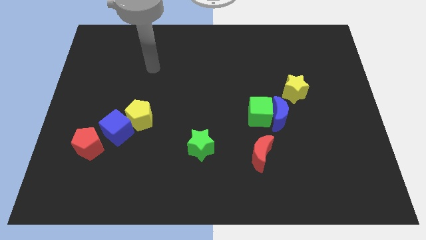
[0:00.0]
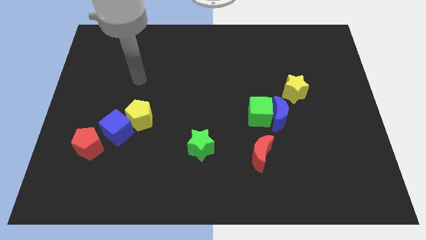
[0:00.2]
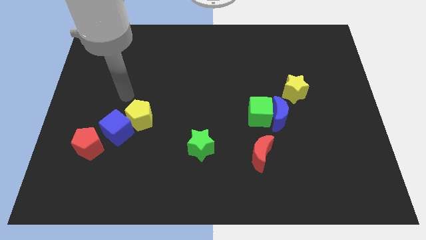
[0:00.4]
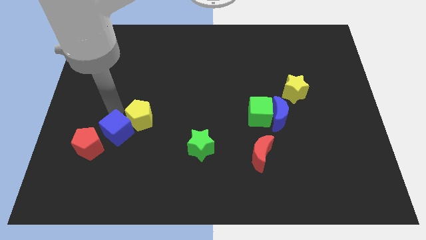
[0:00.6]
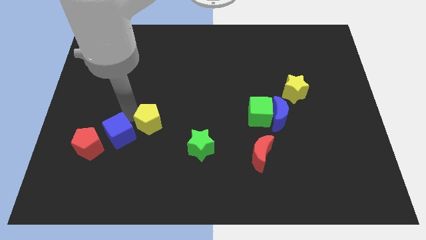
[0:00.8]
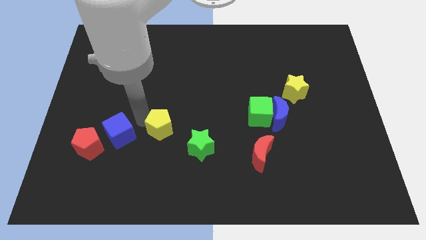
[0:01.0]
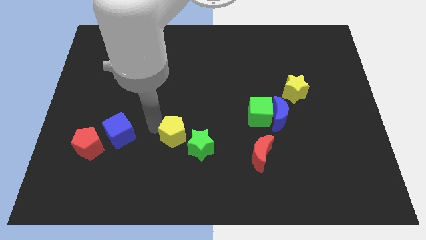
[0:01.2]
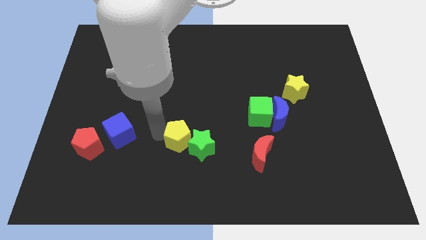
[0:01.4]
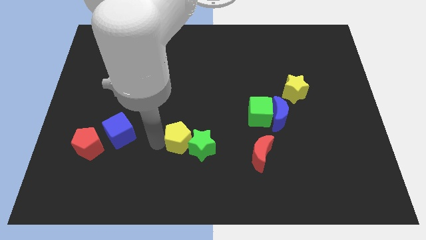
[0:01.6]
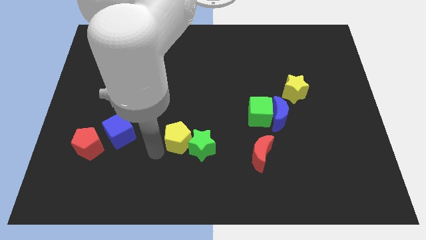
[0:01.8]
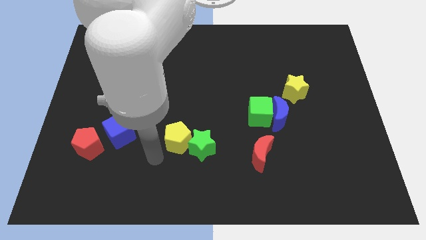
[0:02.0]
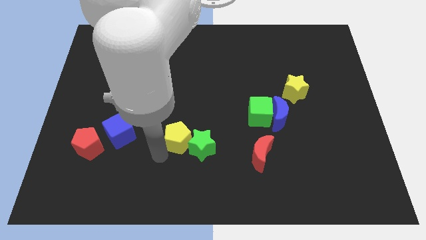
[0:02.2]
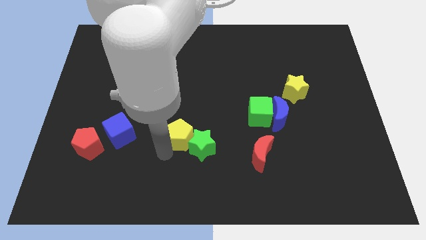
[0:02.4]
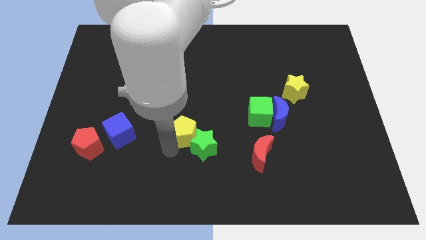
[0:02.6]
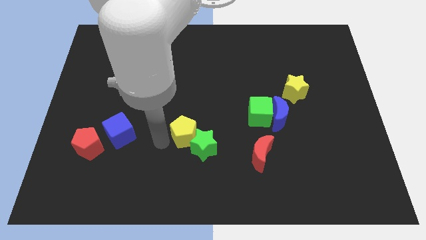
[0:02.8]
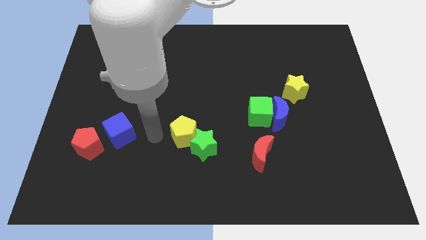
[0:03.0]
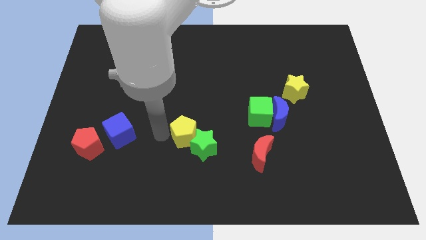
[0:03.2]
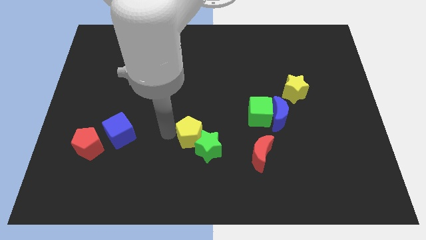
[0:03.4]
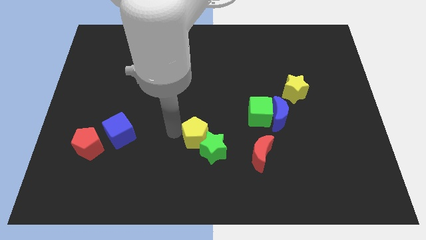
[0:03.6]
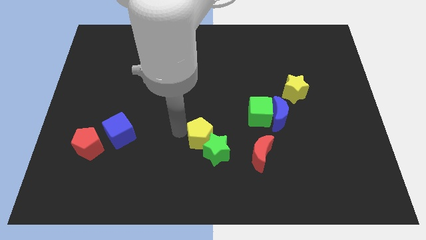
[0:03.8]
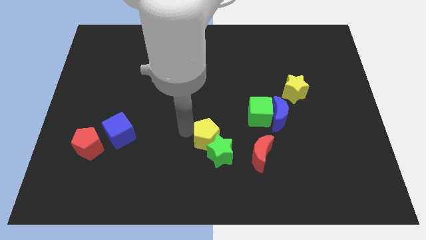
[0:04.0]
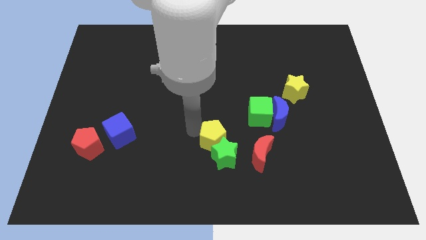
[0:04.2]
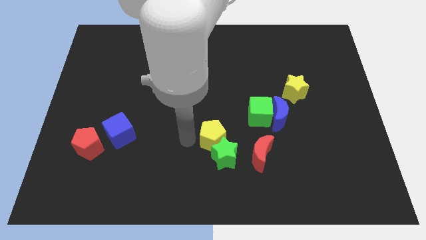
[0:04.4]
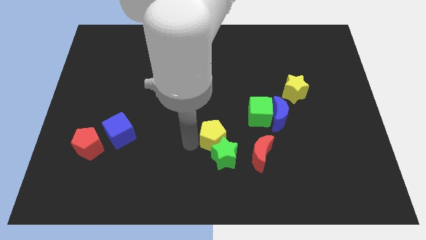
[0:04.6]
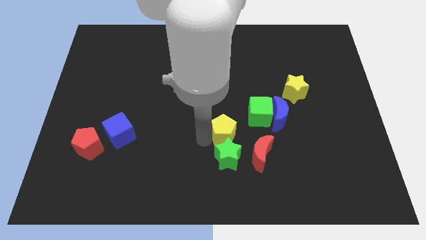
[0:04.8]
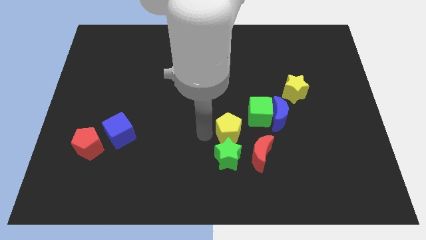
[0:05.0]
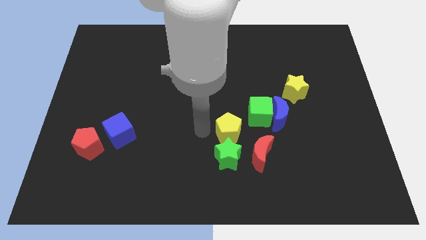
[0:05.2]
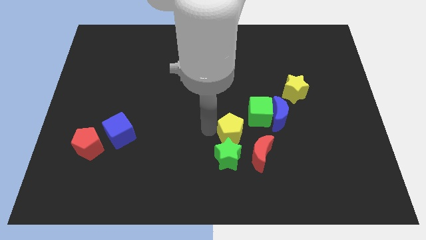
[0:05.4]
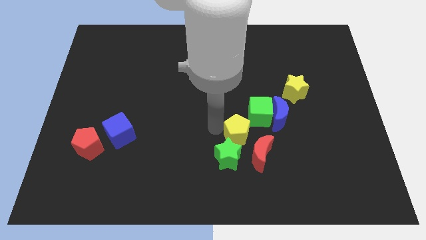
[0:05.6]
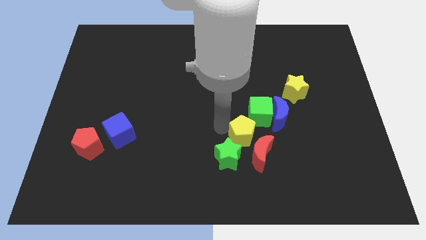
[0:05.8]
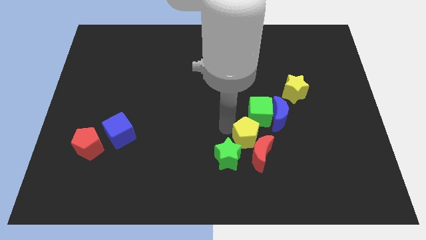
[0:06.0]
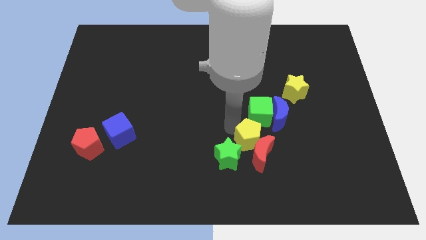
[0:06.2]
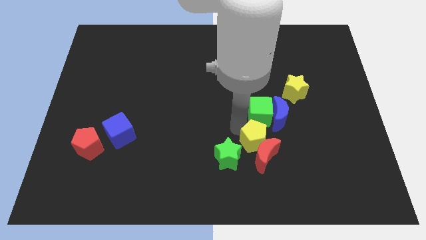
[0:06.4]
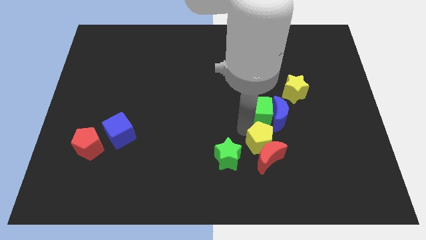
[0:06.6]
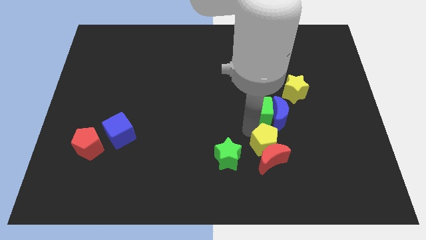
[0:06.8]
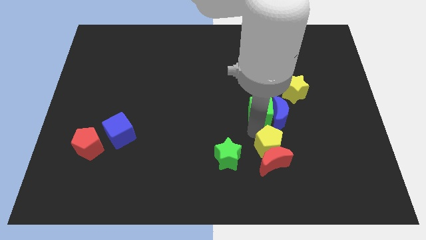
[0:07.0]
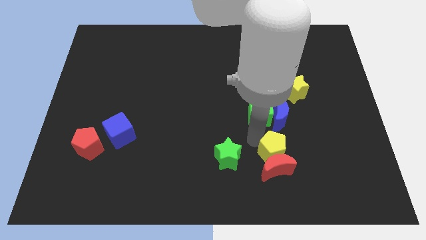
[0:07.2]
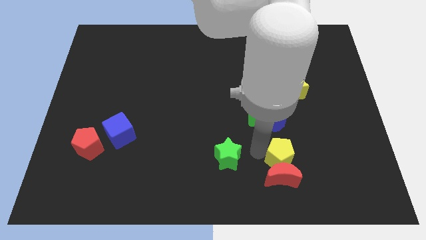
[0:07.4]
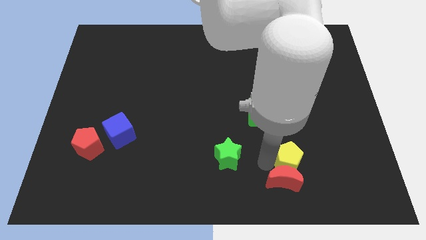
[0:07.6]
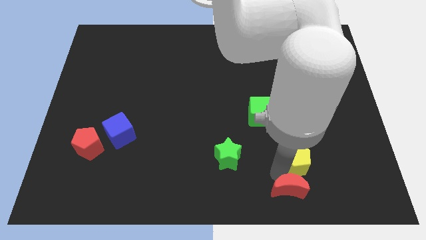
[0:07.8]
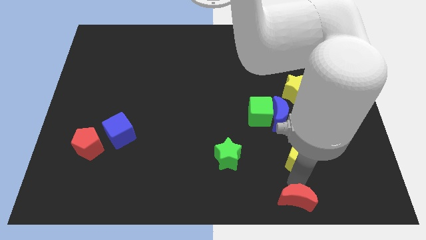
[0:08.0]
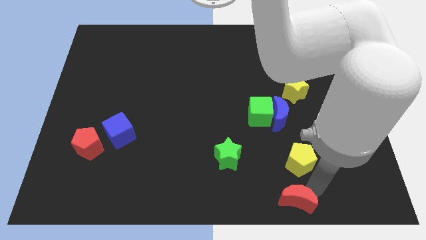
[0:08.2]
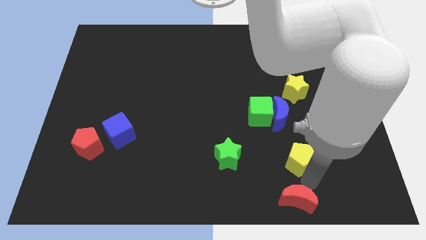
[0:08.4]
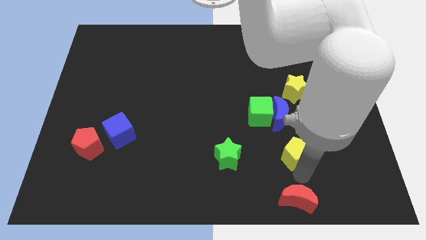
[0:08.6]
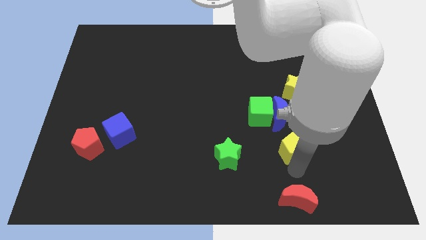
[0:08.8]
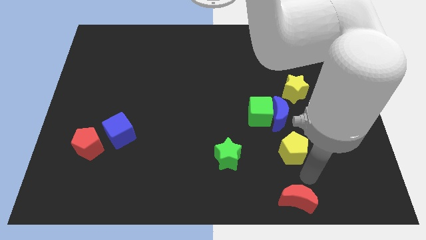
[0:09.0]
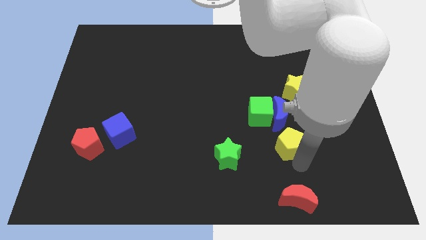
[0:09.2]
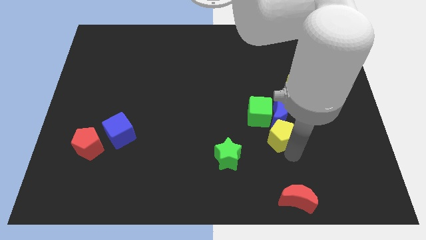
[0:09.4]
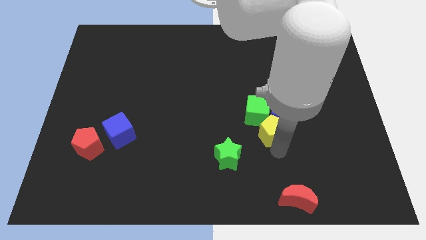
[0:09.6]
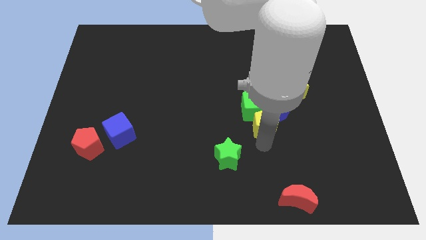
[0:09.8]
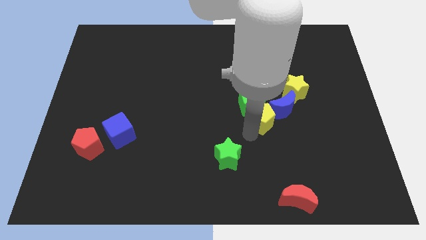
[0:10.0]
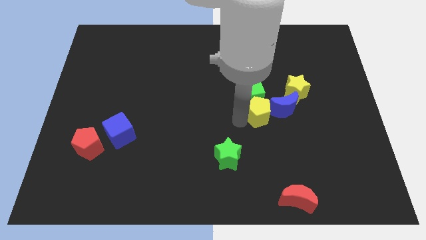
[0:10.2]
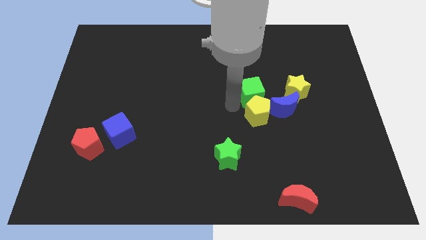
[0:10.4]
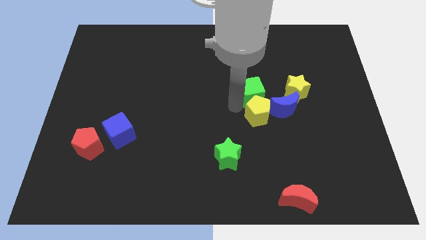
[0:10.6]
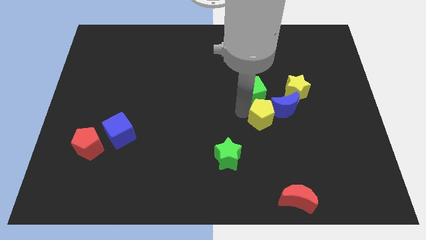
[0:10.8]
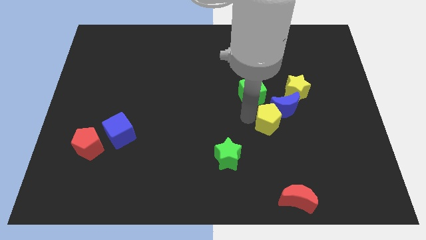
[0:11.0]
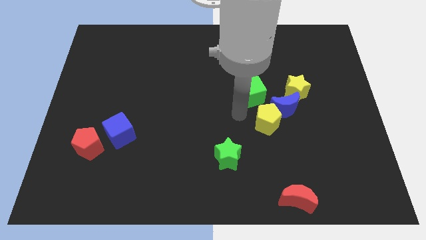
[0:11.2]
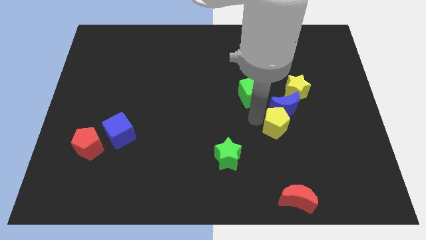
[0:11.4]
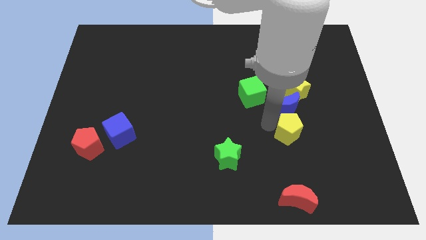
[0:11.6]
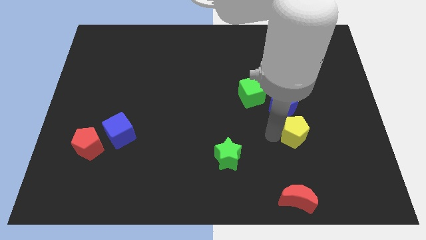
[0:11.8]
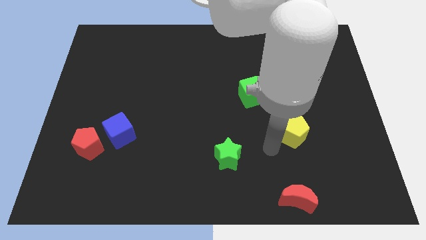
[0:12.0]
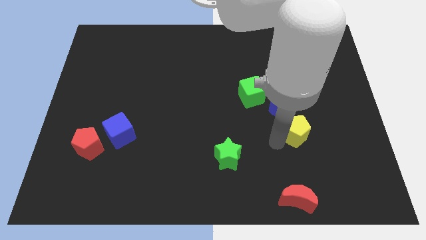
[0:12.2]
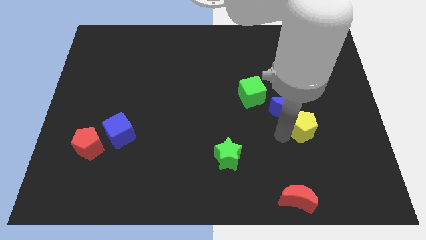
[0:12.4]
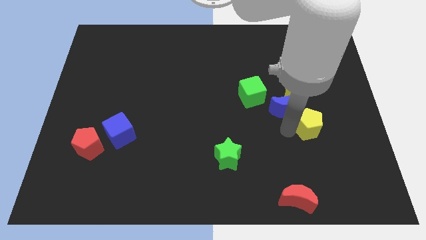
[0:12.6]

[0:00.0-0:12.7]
move the yellow pentagon to the right side of the blue moon

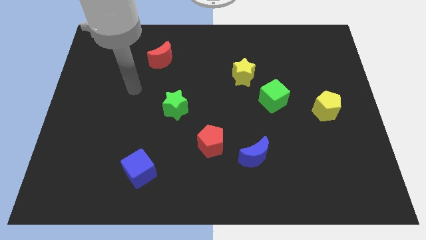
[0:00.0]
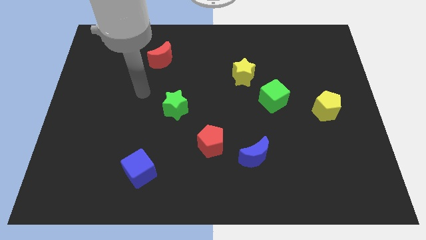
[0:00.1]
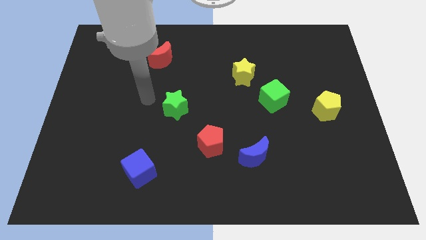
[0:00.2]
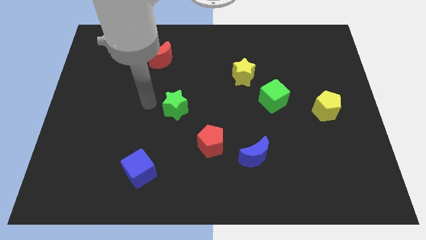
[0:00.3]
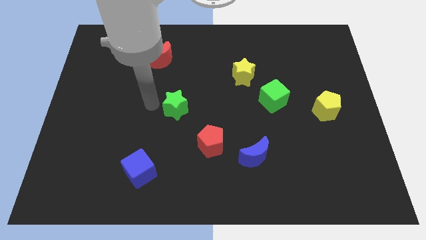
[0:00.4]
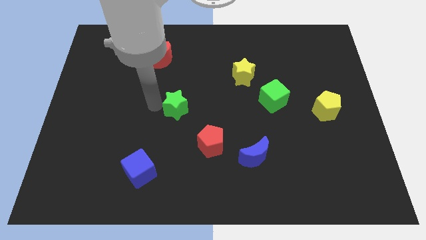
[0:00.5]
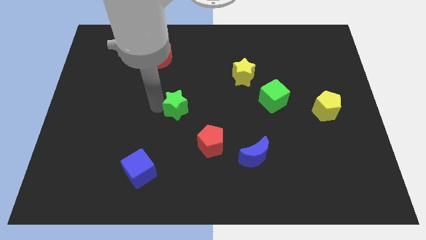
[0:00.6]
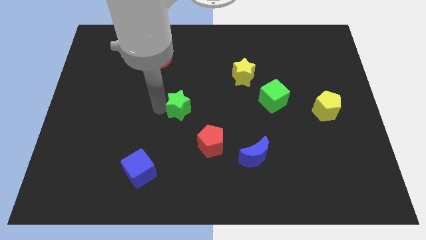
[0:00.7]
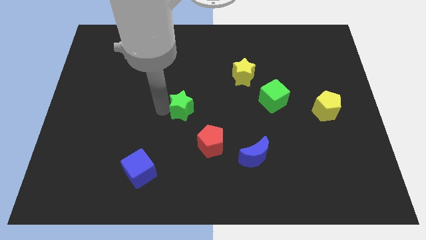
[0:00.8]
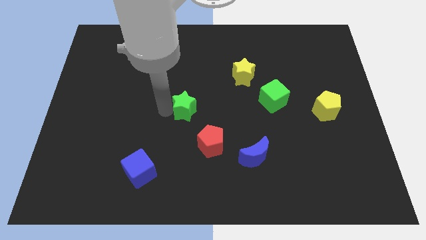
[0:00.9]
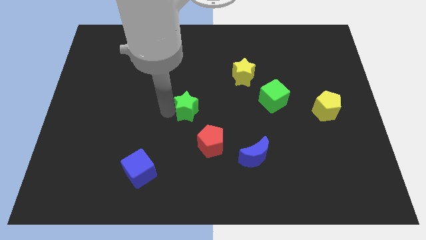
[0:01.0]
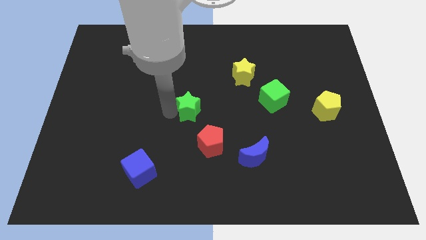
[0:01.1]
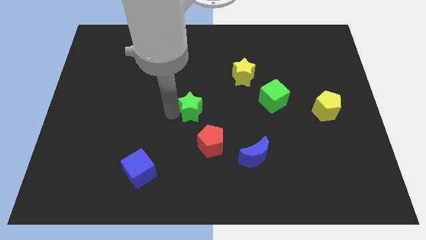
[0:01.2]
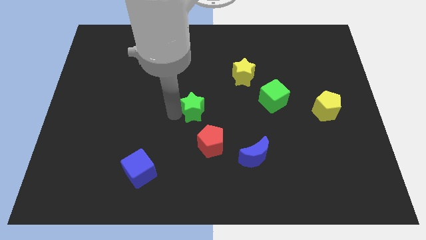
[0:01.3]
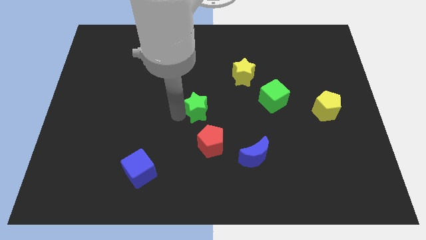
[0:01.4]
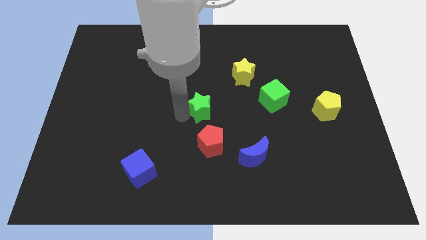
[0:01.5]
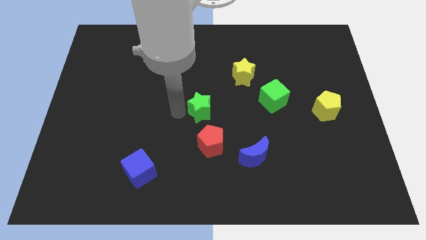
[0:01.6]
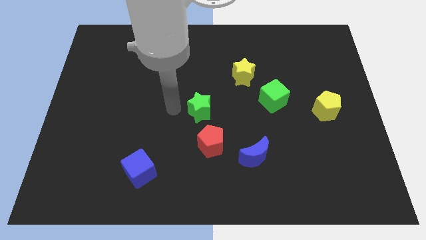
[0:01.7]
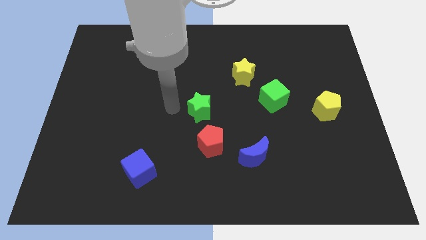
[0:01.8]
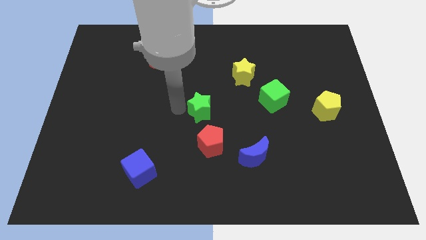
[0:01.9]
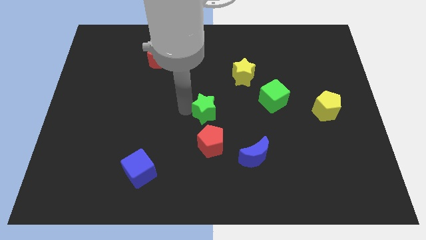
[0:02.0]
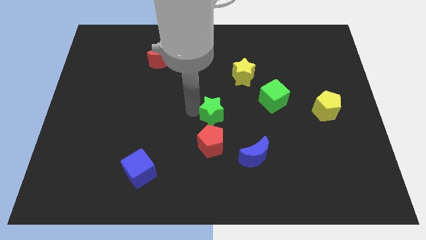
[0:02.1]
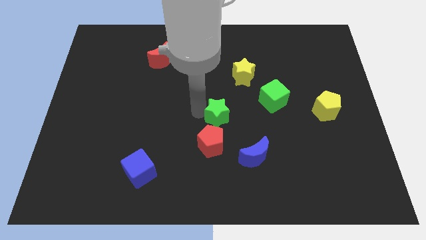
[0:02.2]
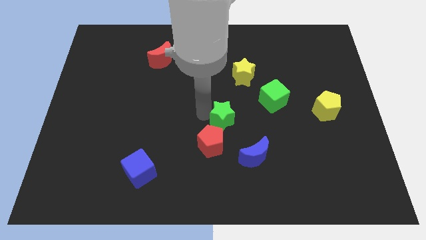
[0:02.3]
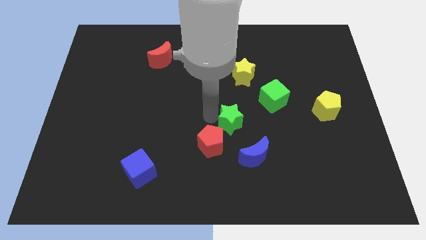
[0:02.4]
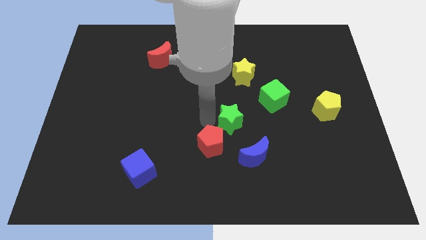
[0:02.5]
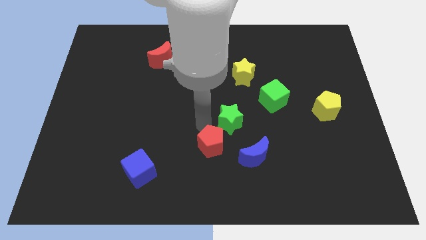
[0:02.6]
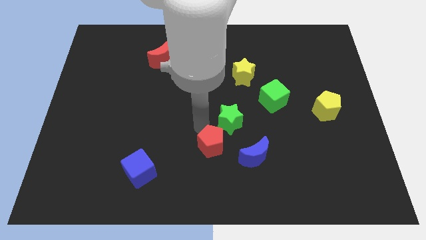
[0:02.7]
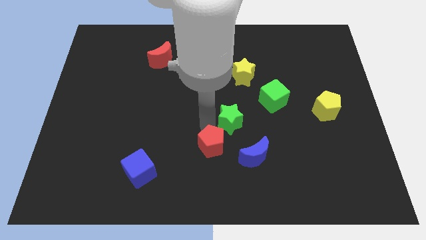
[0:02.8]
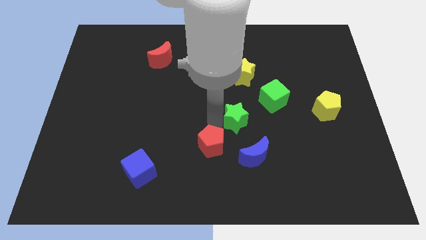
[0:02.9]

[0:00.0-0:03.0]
slide the green star diagonally down and to the left of the green cube
